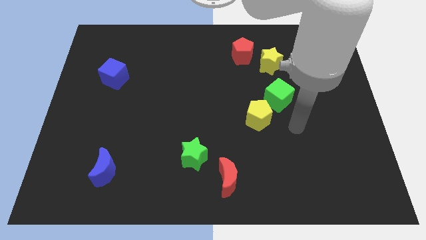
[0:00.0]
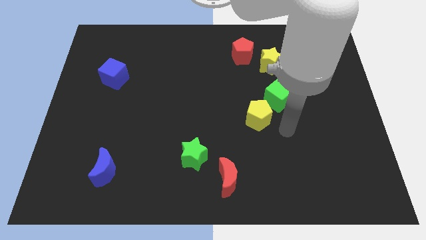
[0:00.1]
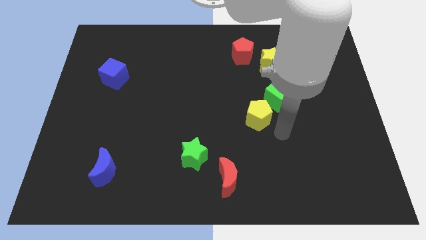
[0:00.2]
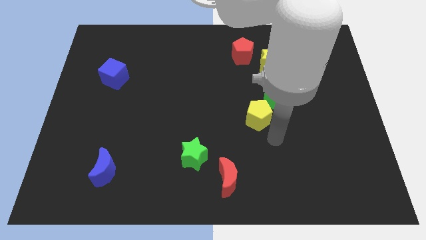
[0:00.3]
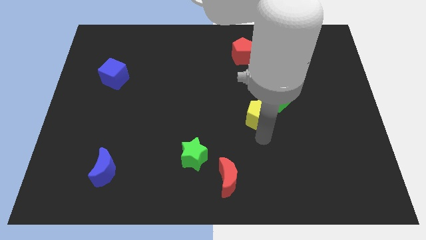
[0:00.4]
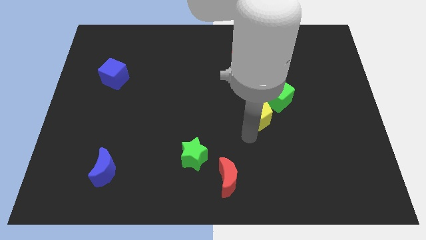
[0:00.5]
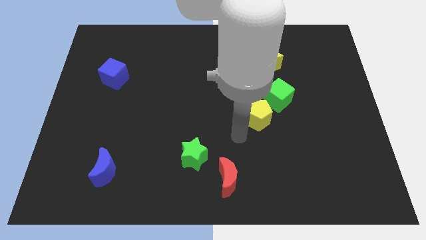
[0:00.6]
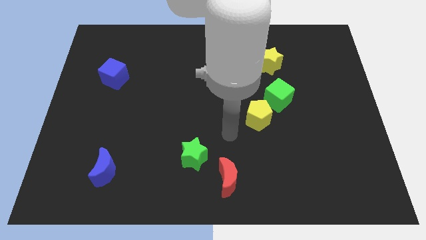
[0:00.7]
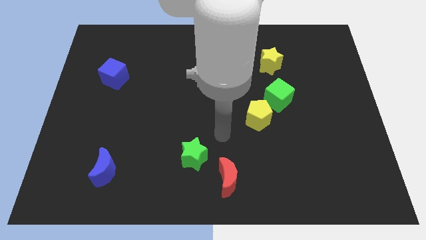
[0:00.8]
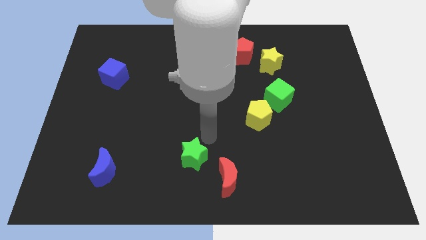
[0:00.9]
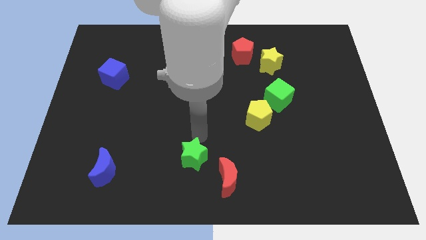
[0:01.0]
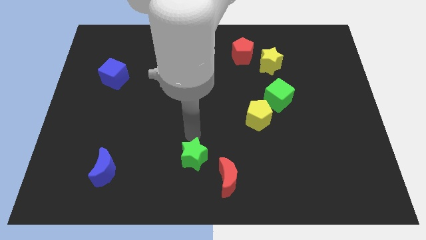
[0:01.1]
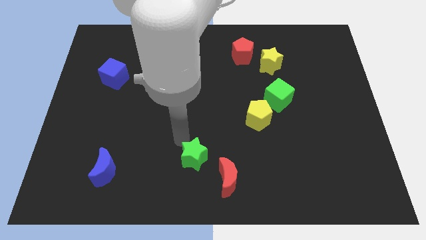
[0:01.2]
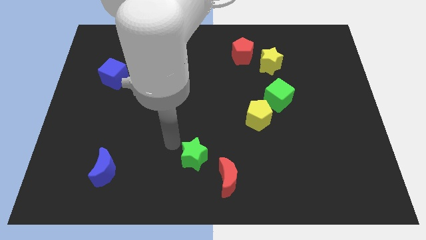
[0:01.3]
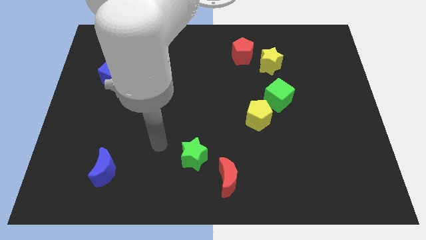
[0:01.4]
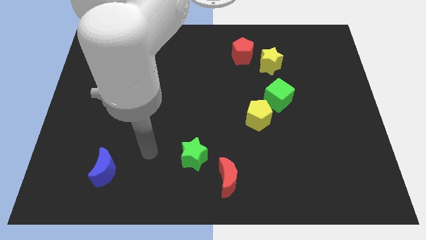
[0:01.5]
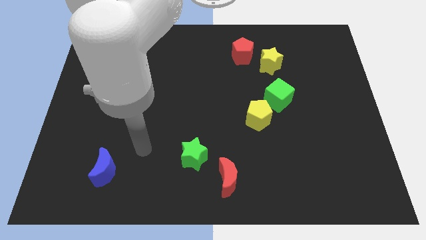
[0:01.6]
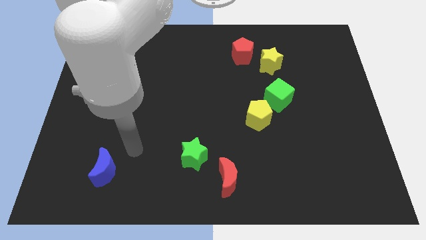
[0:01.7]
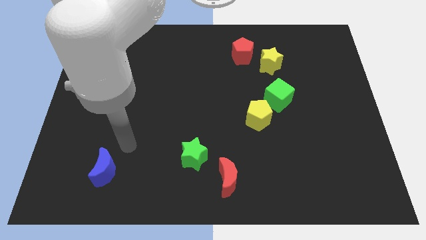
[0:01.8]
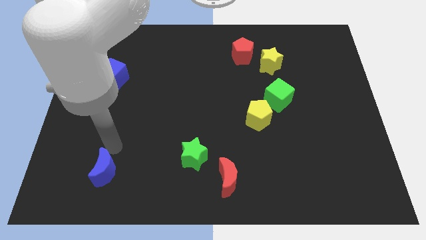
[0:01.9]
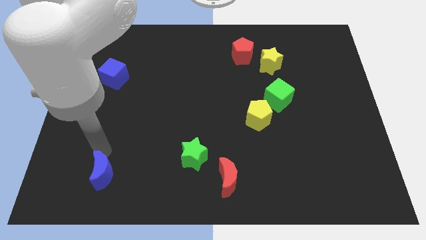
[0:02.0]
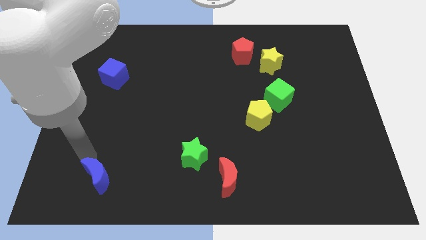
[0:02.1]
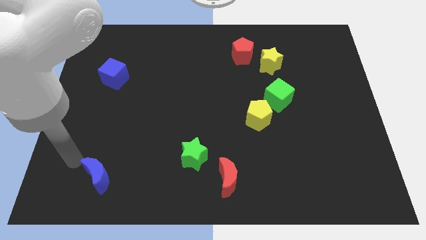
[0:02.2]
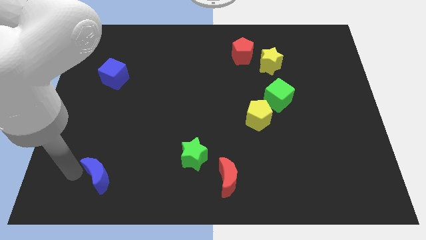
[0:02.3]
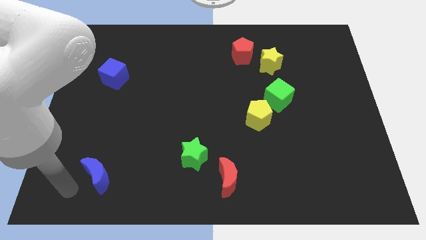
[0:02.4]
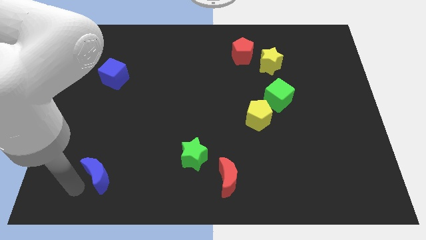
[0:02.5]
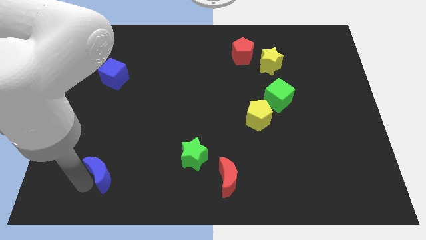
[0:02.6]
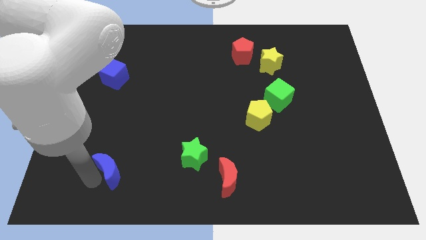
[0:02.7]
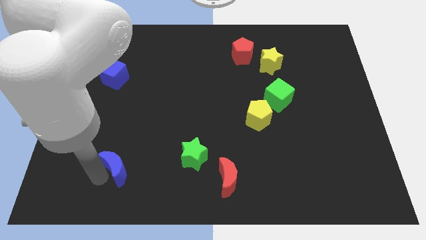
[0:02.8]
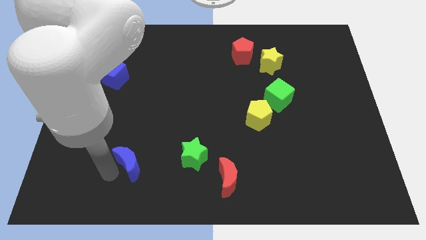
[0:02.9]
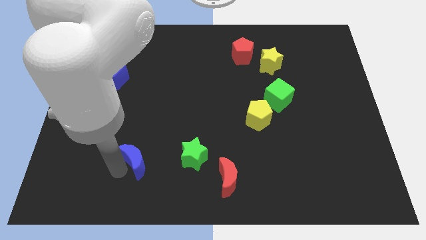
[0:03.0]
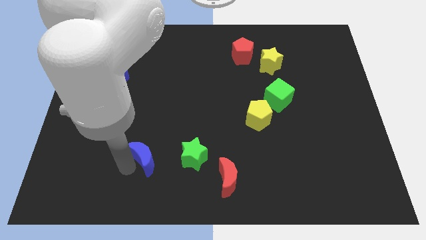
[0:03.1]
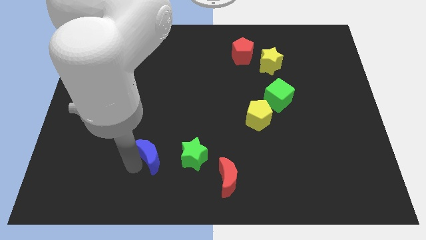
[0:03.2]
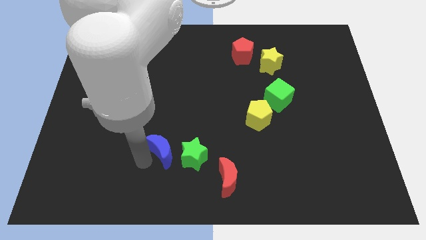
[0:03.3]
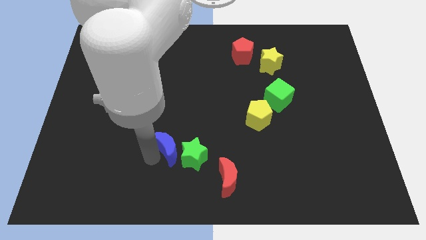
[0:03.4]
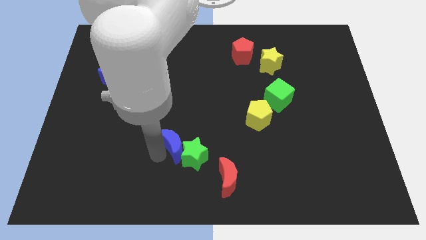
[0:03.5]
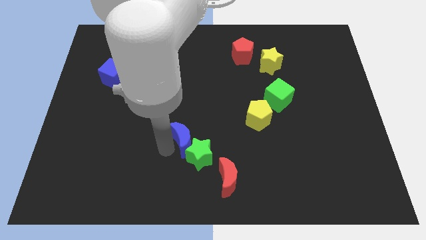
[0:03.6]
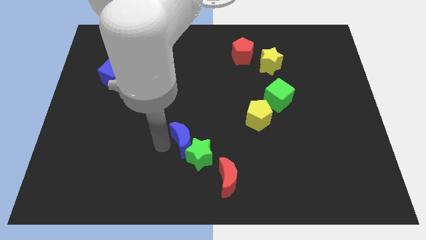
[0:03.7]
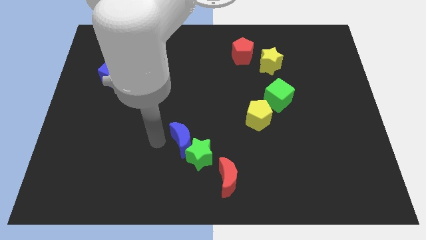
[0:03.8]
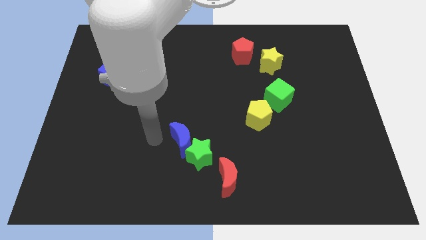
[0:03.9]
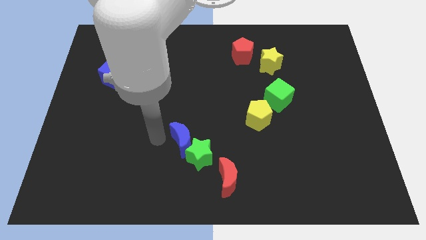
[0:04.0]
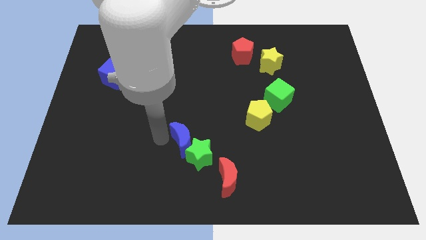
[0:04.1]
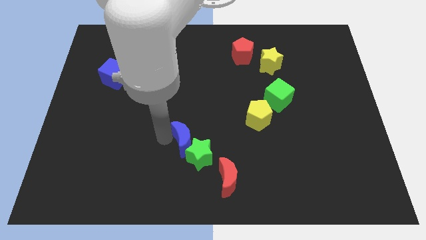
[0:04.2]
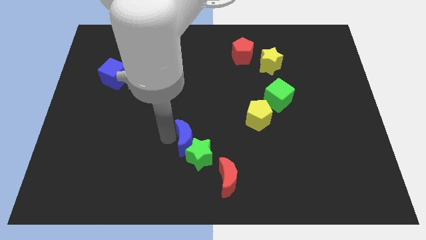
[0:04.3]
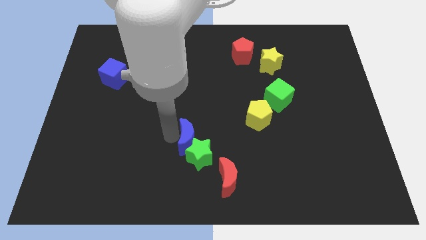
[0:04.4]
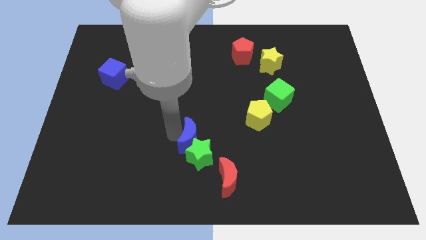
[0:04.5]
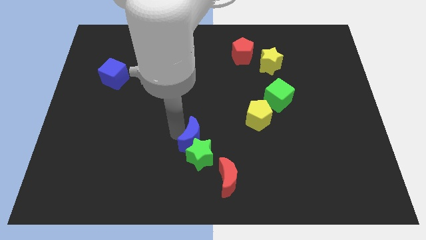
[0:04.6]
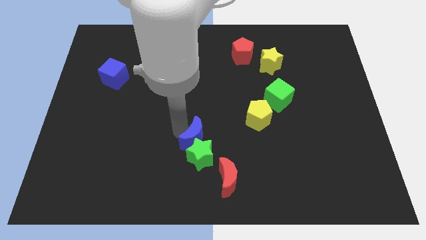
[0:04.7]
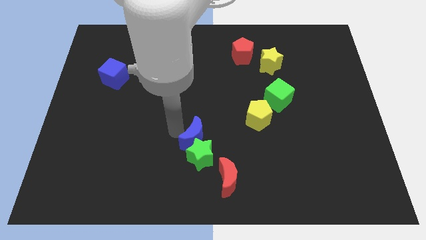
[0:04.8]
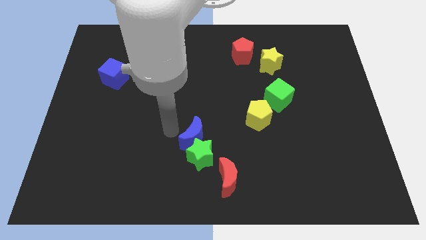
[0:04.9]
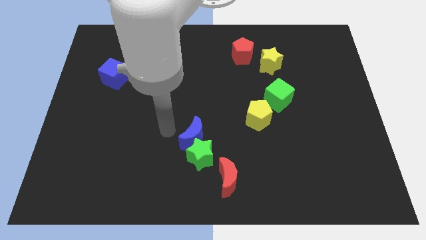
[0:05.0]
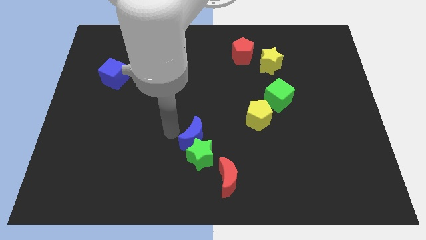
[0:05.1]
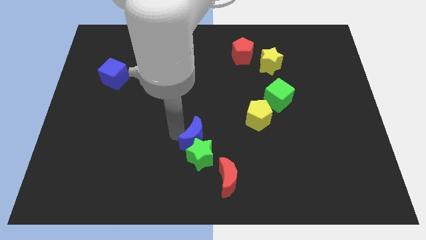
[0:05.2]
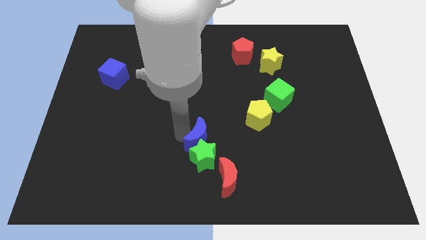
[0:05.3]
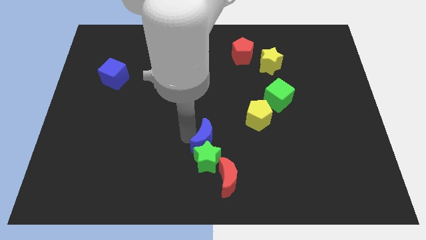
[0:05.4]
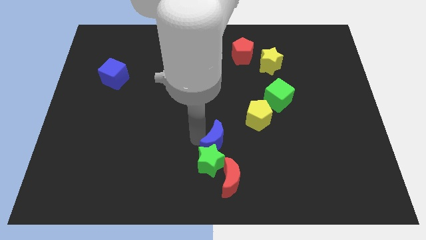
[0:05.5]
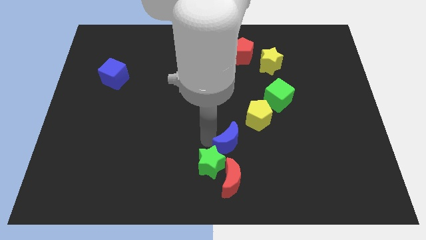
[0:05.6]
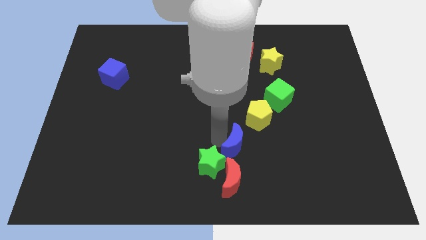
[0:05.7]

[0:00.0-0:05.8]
move the blue moon just right of the green star

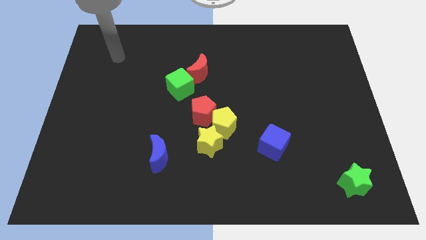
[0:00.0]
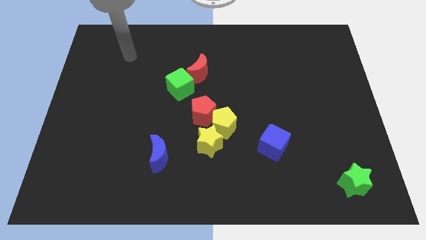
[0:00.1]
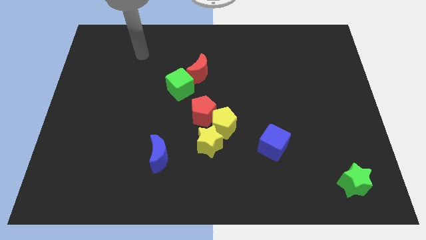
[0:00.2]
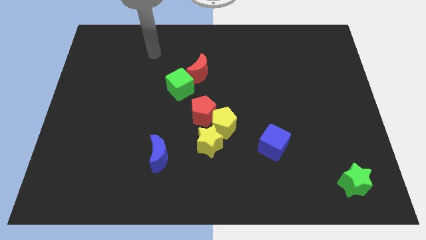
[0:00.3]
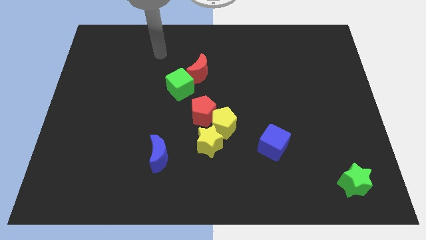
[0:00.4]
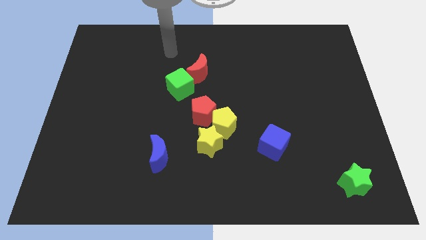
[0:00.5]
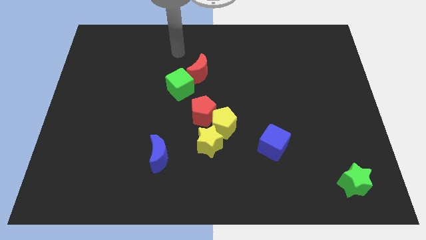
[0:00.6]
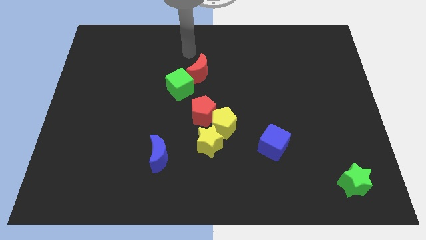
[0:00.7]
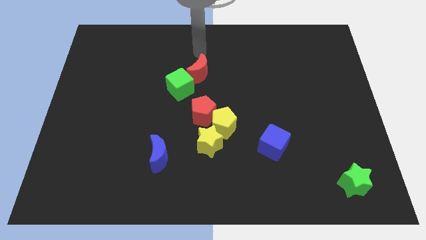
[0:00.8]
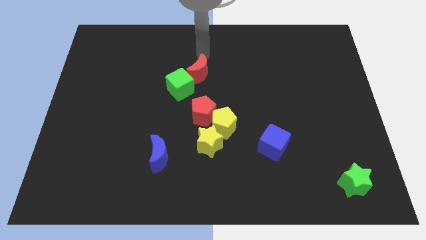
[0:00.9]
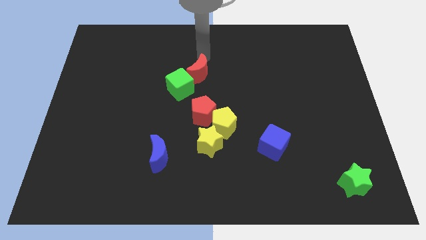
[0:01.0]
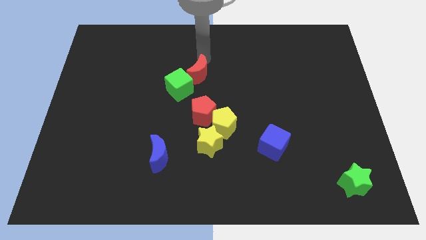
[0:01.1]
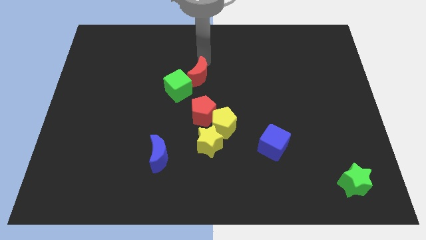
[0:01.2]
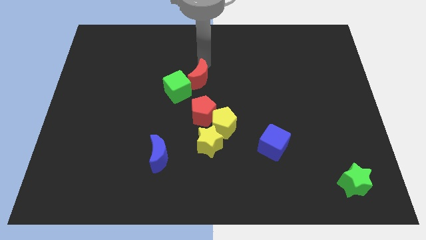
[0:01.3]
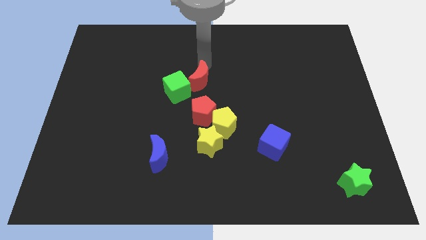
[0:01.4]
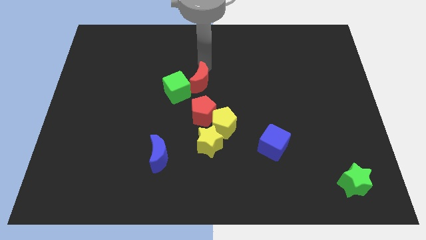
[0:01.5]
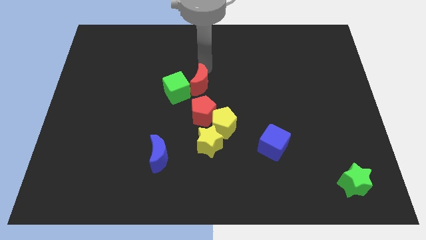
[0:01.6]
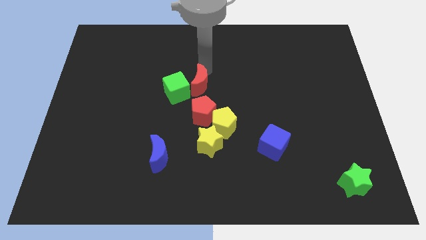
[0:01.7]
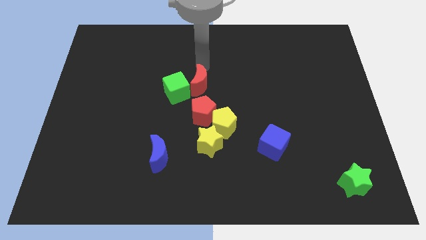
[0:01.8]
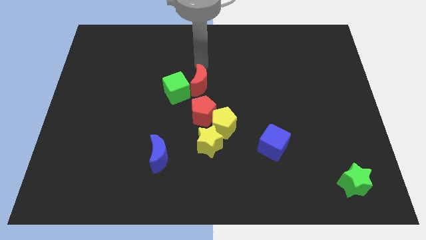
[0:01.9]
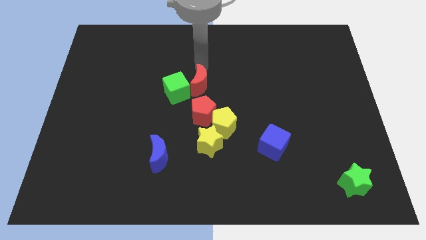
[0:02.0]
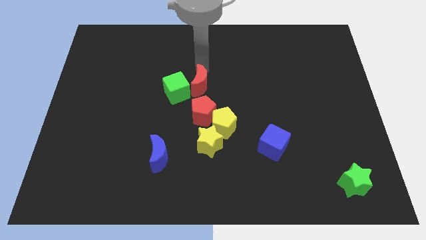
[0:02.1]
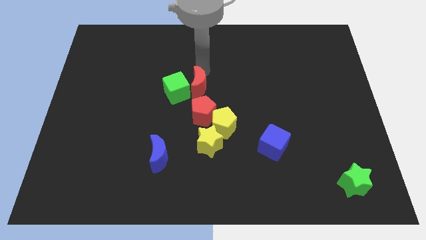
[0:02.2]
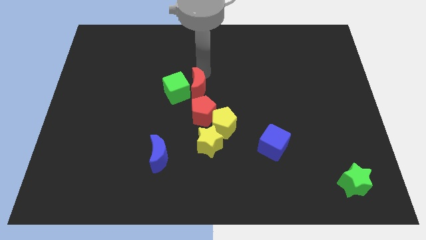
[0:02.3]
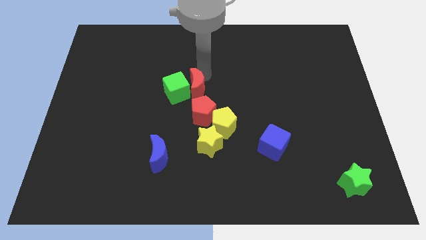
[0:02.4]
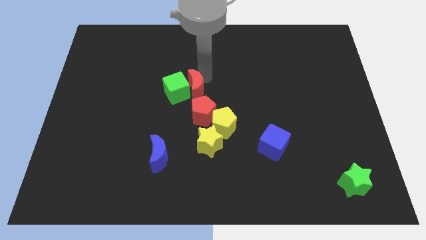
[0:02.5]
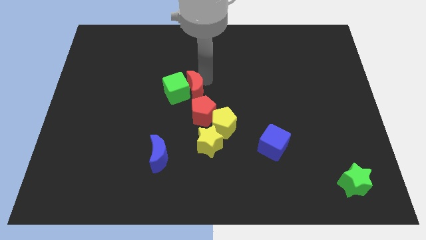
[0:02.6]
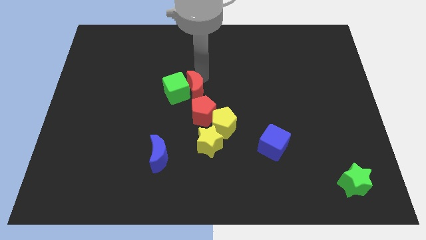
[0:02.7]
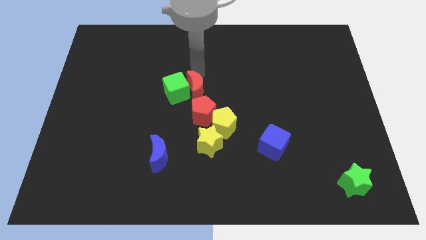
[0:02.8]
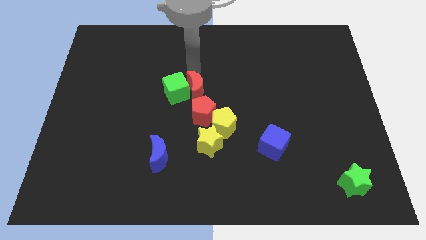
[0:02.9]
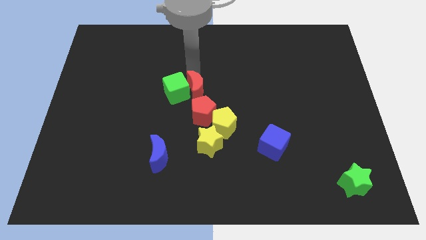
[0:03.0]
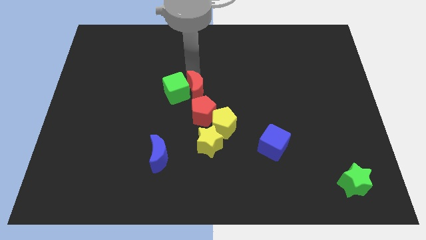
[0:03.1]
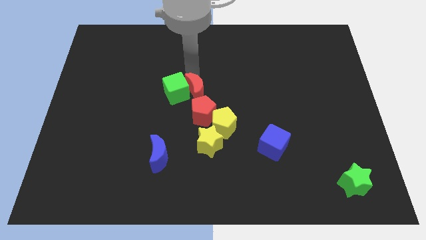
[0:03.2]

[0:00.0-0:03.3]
put the red moon to the top left side of the yellow pentagon
